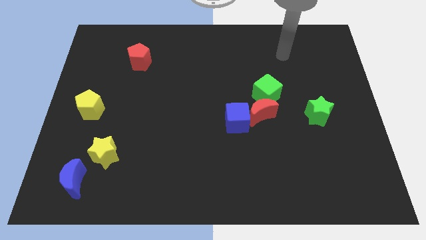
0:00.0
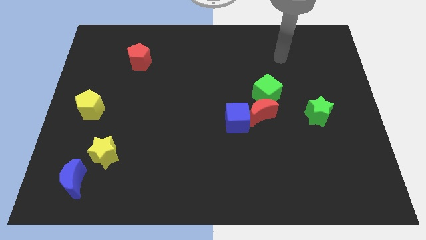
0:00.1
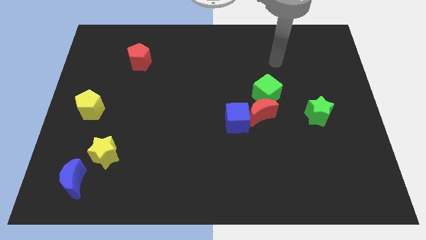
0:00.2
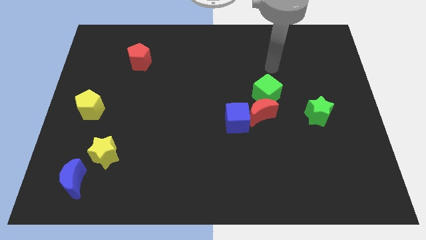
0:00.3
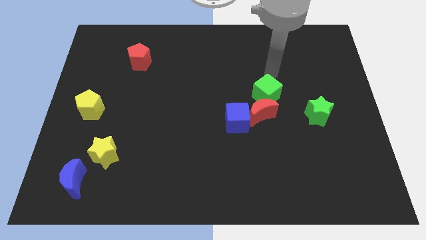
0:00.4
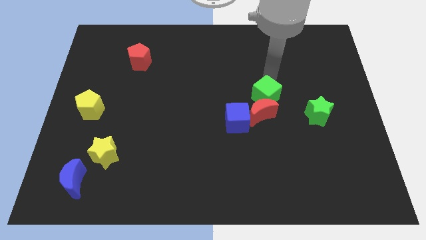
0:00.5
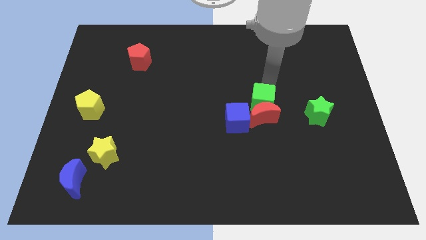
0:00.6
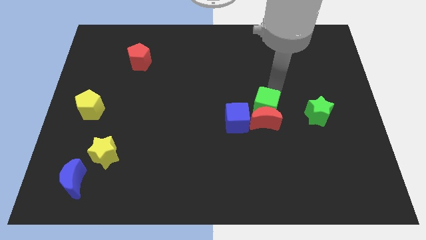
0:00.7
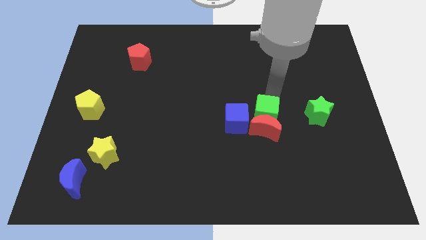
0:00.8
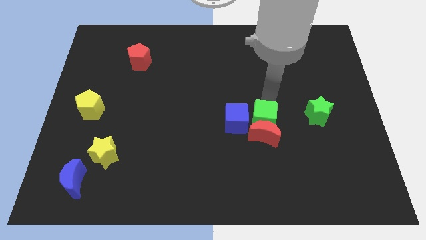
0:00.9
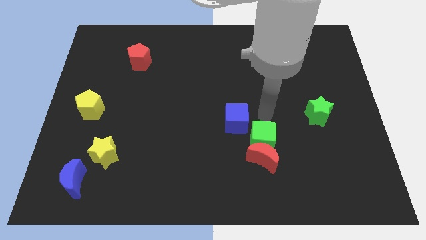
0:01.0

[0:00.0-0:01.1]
pull the blue cube apart from the red moon

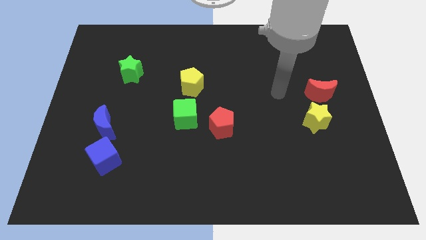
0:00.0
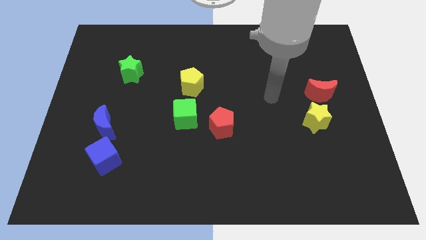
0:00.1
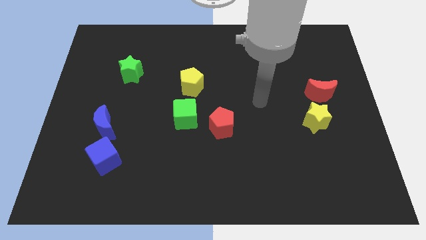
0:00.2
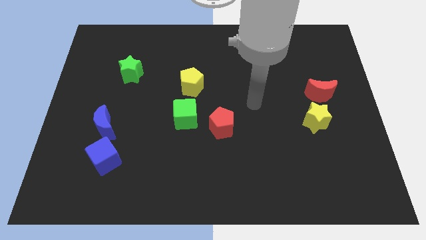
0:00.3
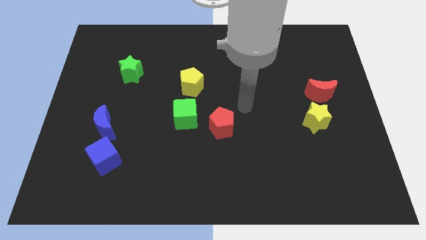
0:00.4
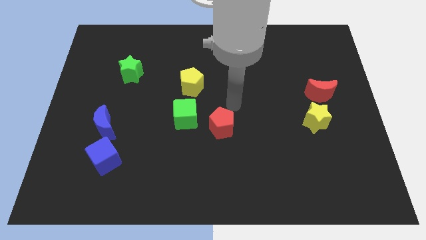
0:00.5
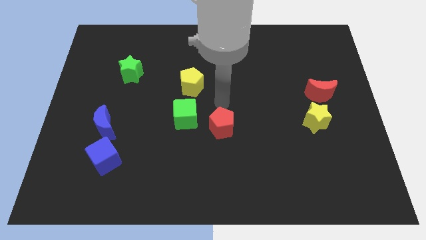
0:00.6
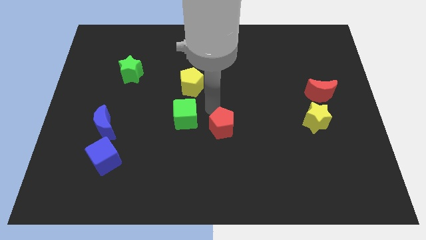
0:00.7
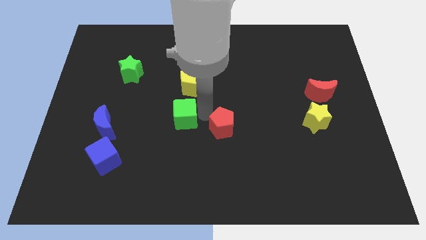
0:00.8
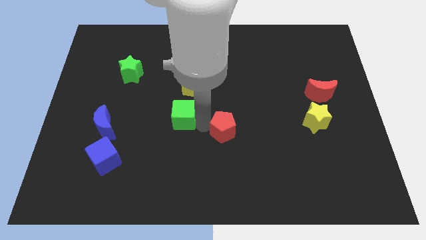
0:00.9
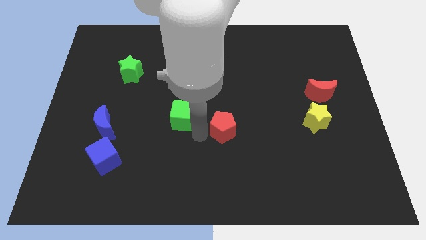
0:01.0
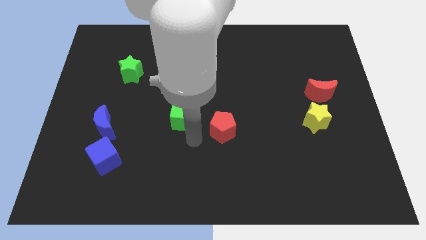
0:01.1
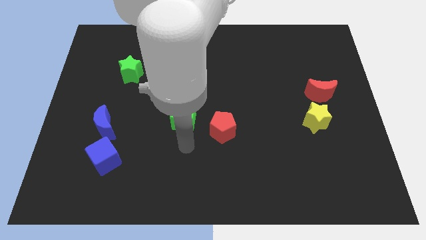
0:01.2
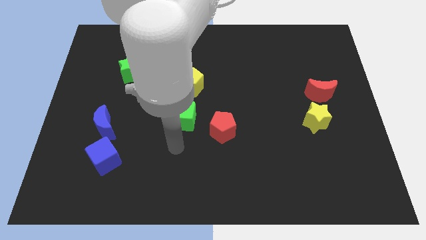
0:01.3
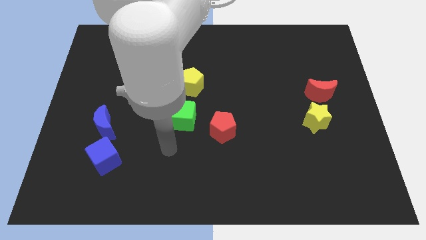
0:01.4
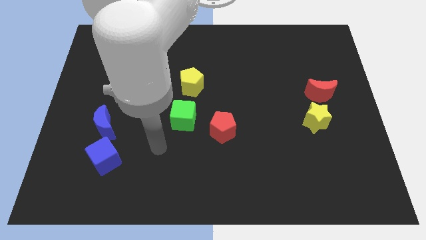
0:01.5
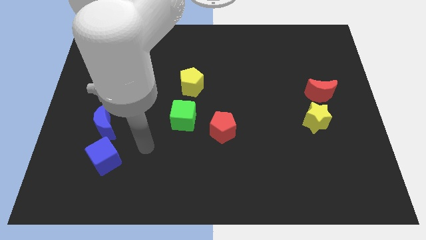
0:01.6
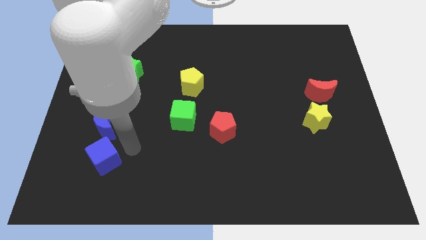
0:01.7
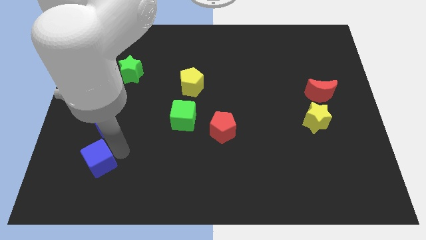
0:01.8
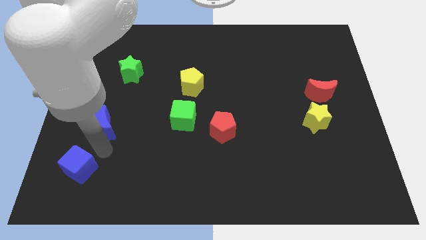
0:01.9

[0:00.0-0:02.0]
separate the blue moon from the blue cube

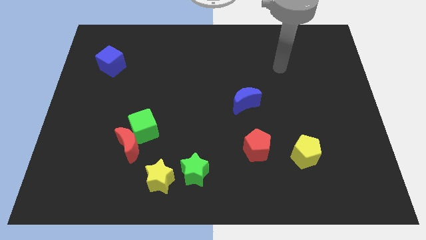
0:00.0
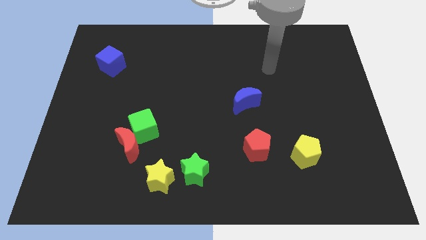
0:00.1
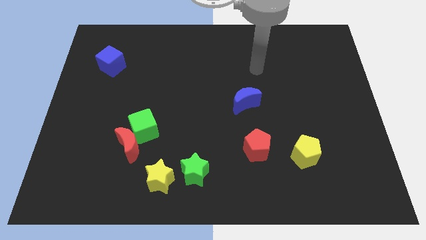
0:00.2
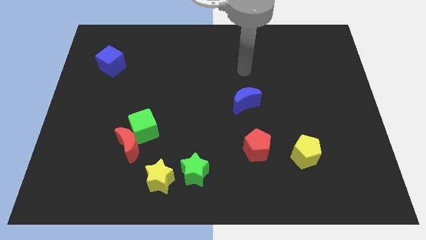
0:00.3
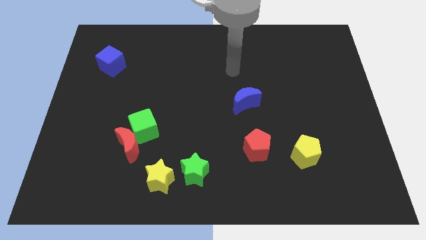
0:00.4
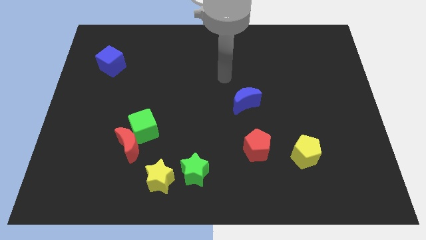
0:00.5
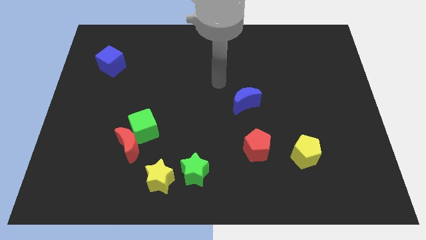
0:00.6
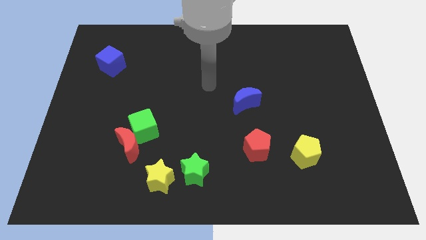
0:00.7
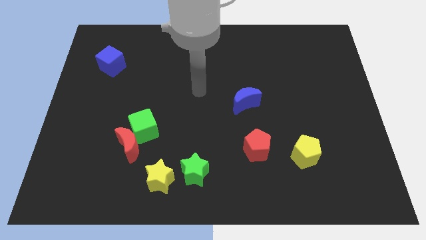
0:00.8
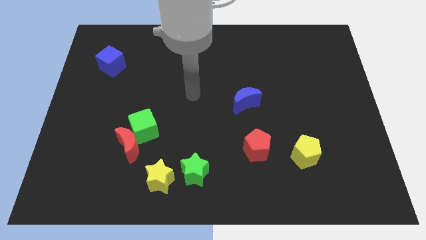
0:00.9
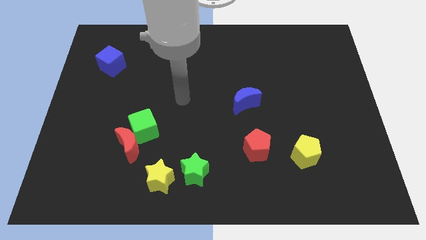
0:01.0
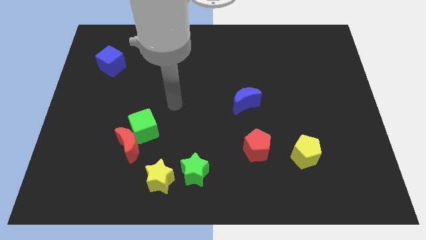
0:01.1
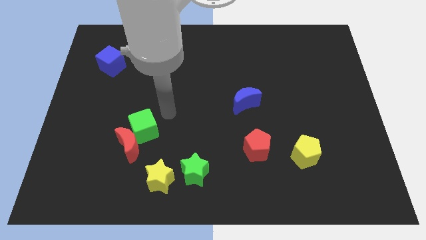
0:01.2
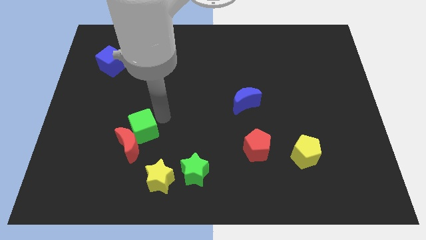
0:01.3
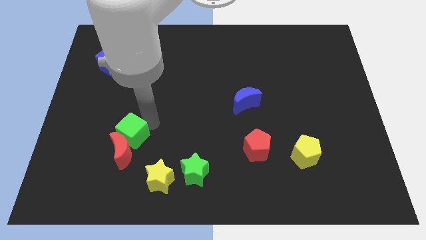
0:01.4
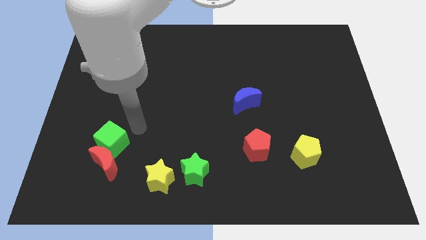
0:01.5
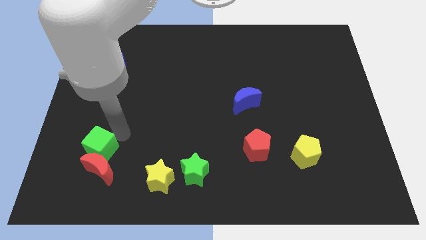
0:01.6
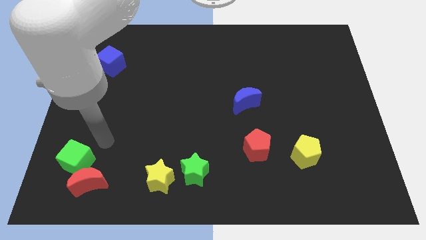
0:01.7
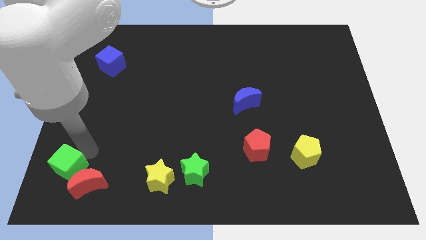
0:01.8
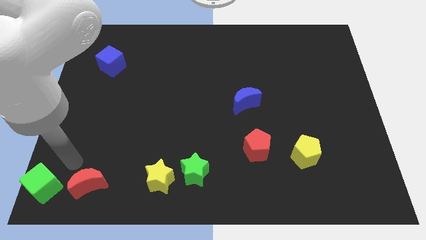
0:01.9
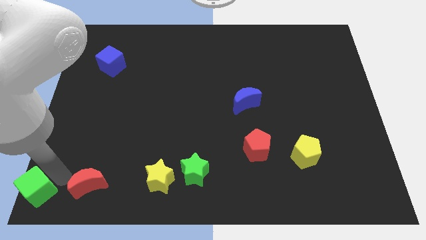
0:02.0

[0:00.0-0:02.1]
move the red moon away from the green cube

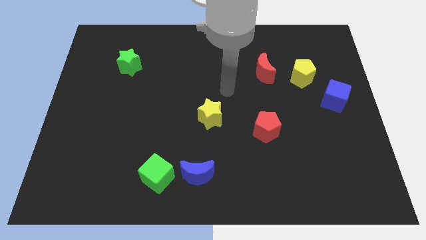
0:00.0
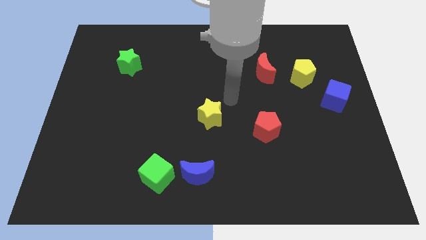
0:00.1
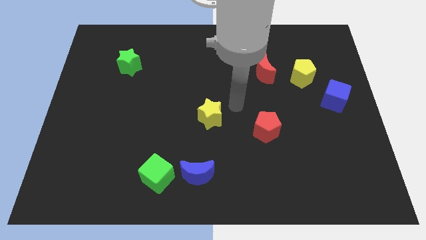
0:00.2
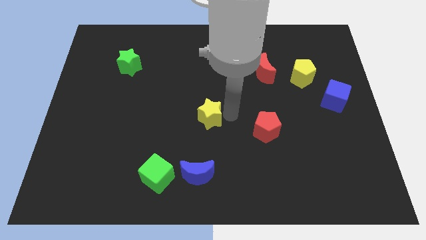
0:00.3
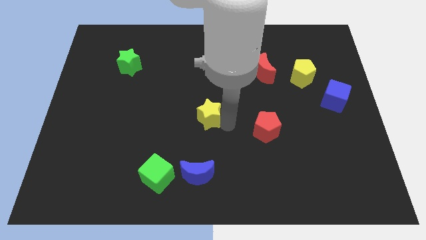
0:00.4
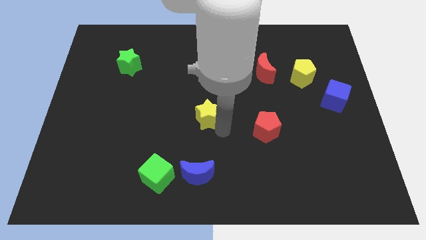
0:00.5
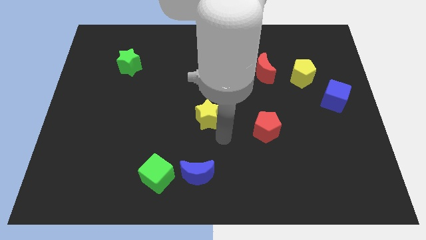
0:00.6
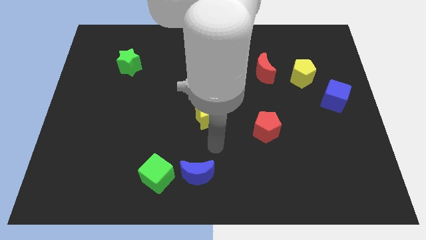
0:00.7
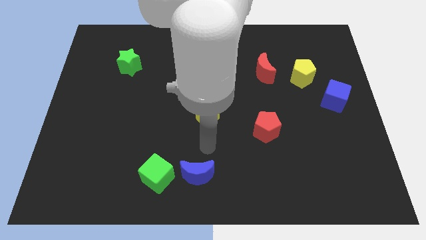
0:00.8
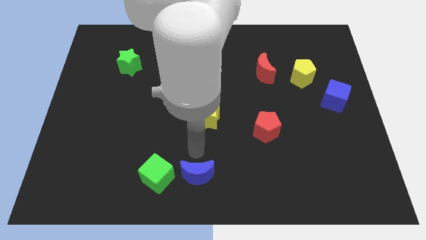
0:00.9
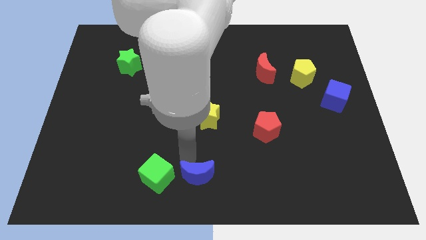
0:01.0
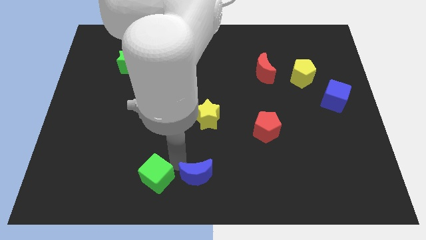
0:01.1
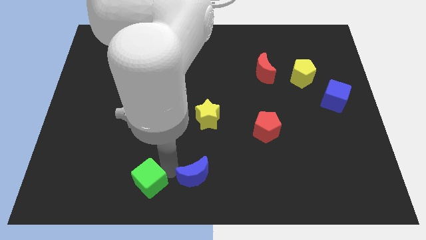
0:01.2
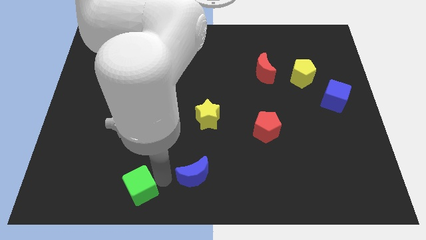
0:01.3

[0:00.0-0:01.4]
separate the blue moon from the green cube

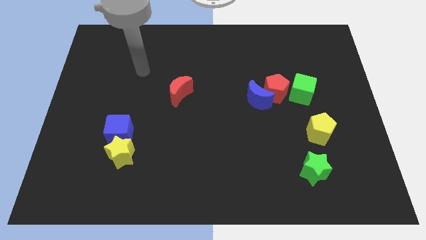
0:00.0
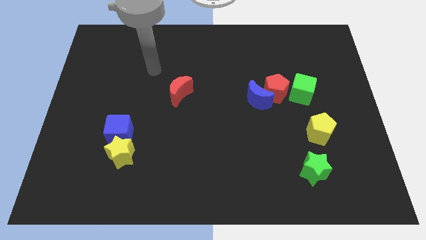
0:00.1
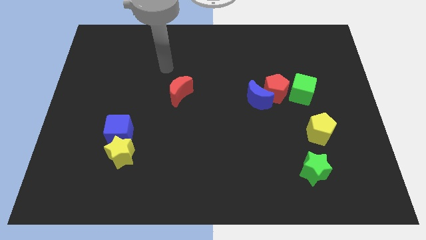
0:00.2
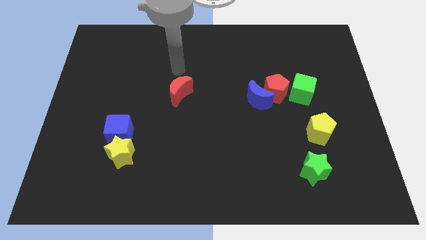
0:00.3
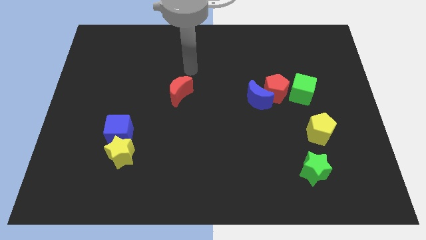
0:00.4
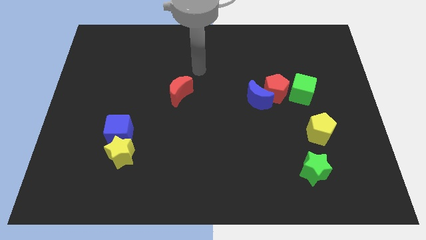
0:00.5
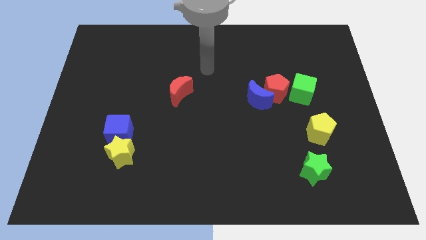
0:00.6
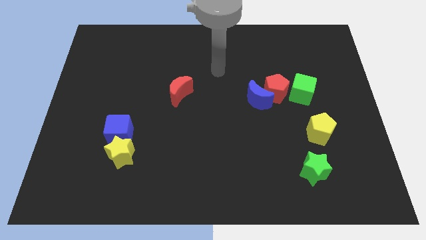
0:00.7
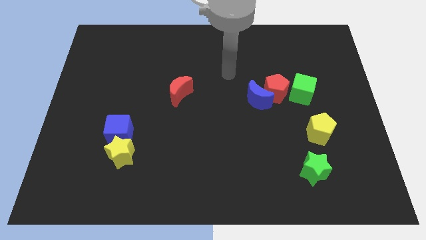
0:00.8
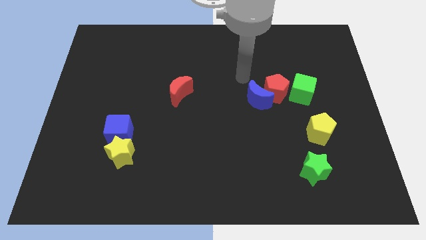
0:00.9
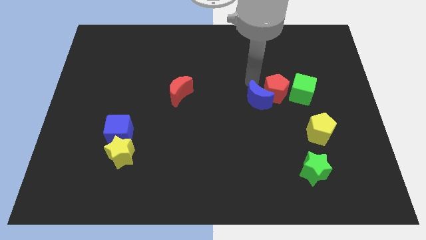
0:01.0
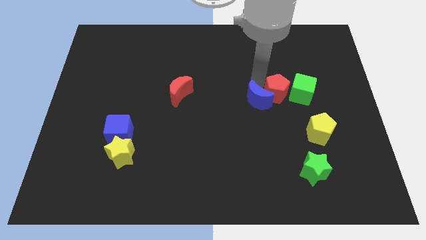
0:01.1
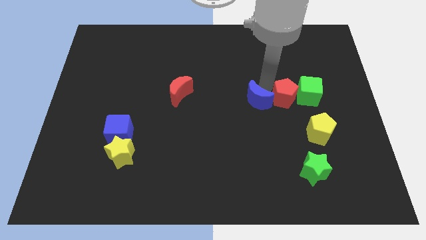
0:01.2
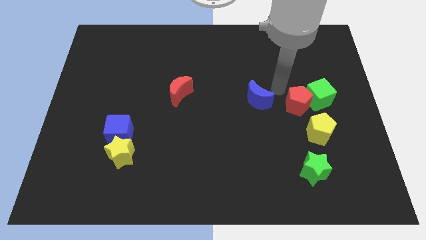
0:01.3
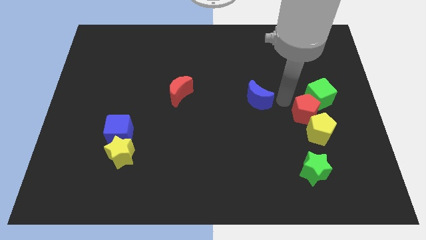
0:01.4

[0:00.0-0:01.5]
pull the blue moon apart from the red pentagon

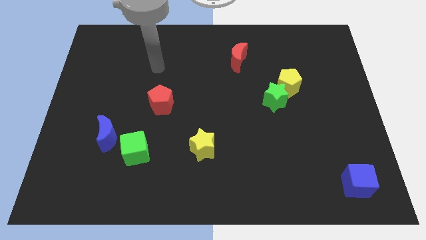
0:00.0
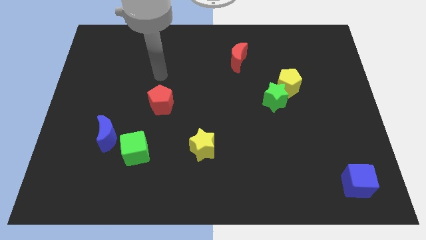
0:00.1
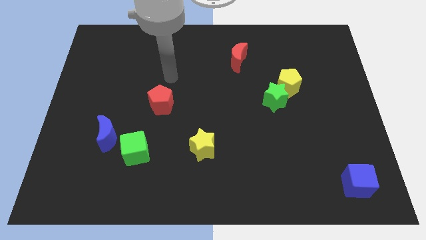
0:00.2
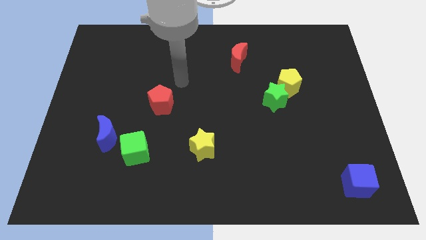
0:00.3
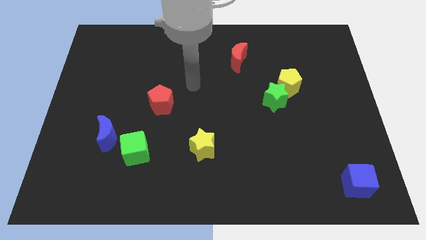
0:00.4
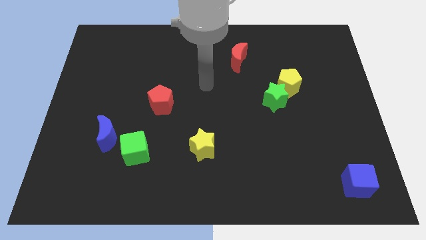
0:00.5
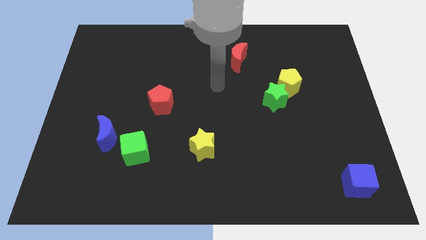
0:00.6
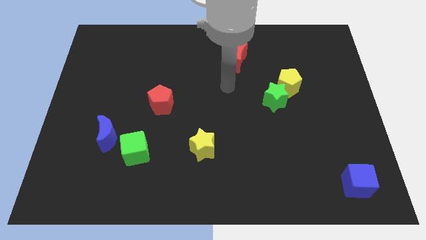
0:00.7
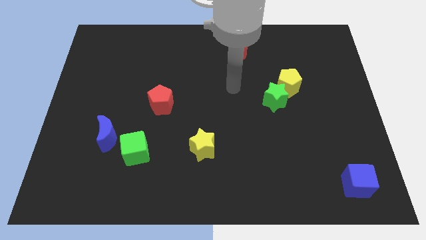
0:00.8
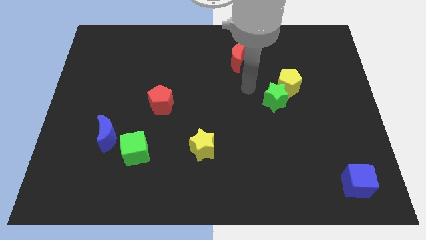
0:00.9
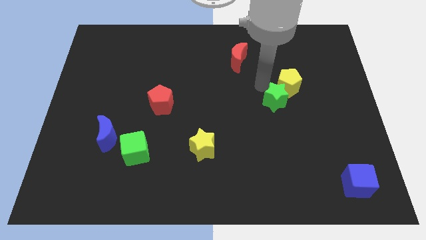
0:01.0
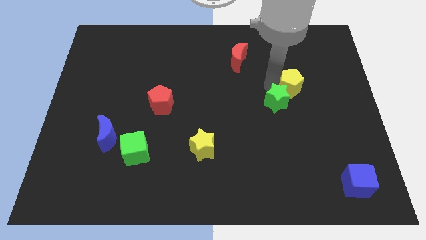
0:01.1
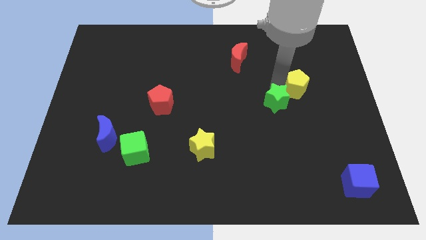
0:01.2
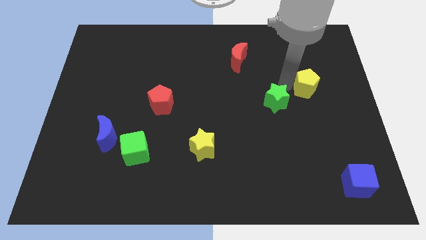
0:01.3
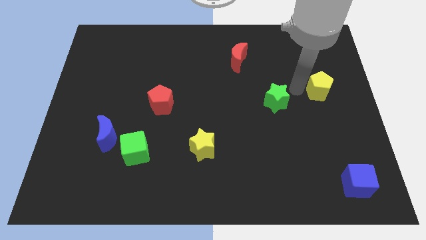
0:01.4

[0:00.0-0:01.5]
separate the green star from the yellow pentagon
